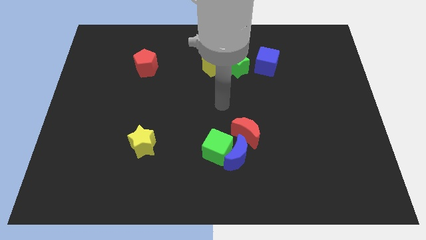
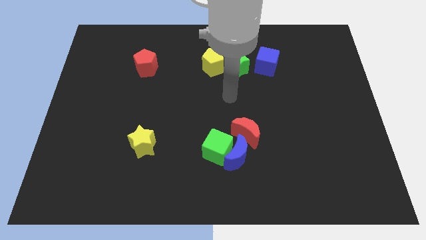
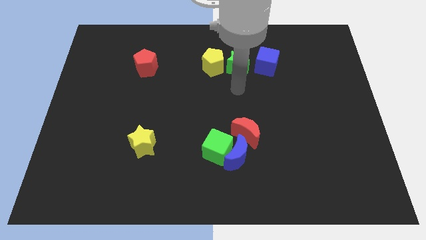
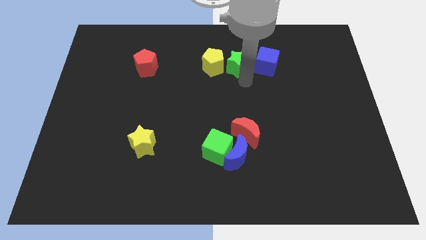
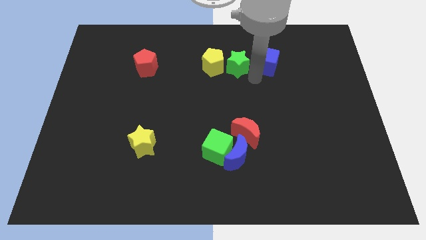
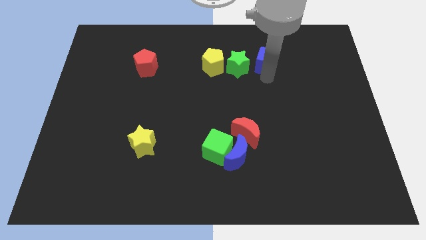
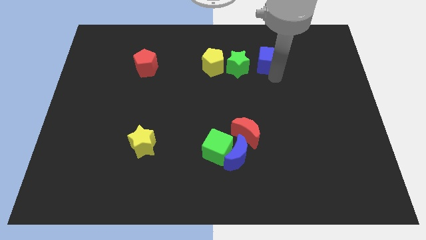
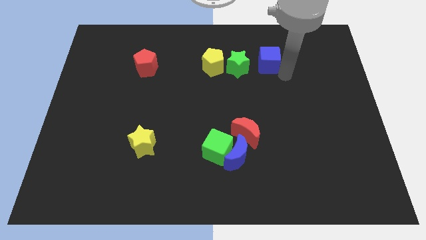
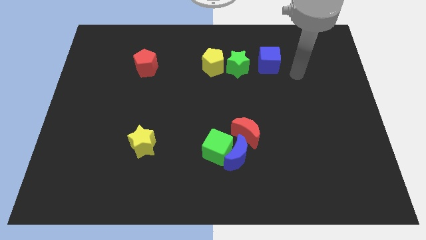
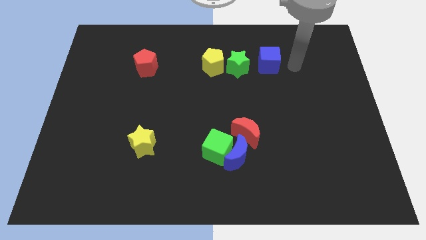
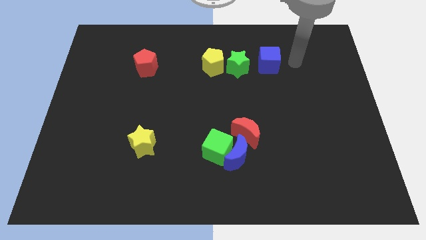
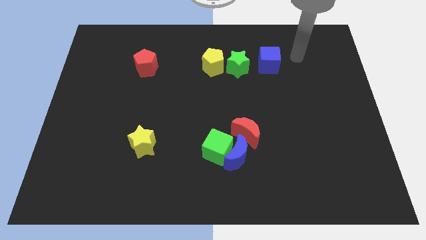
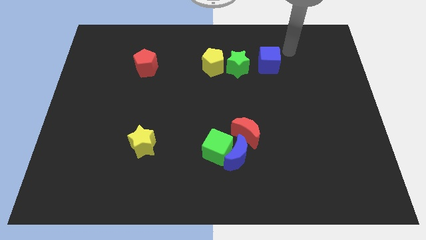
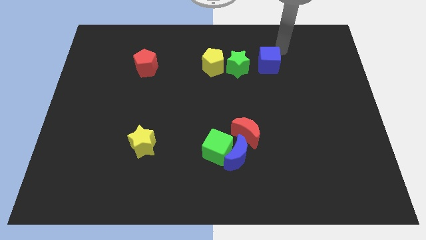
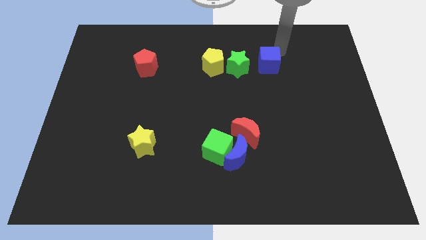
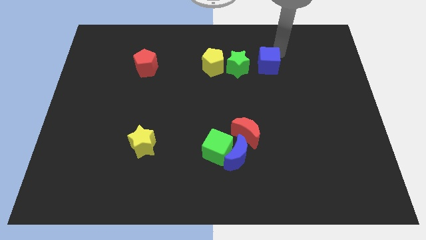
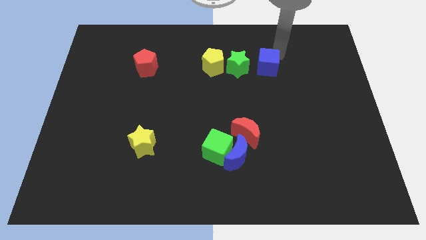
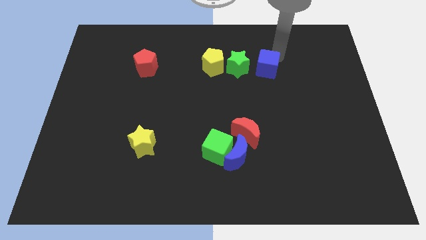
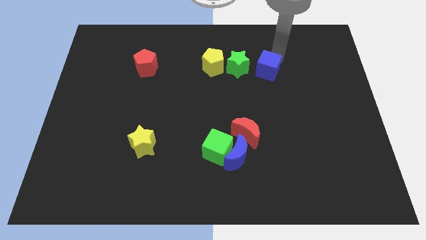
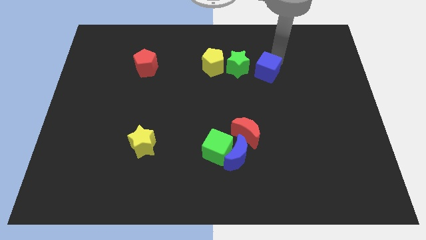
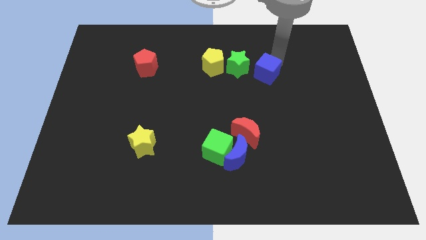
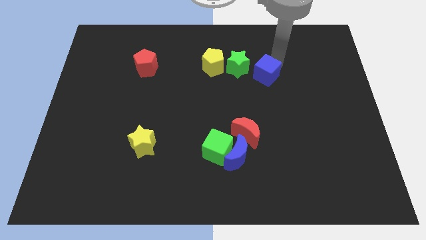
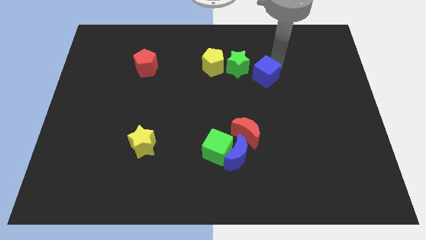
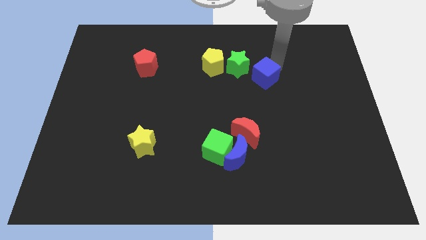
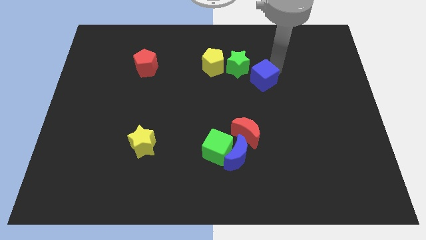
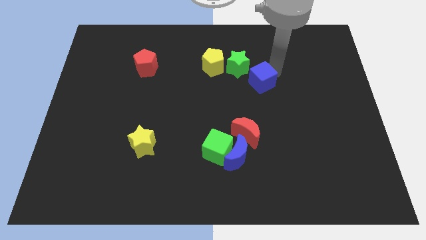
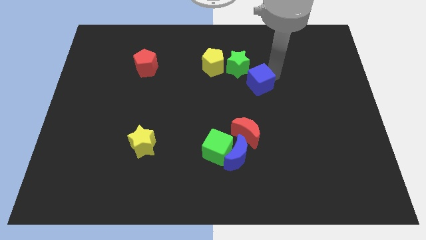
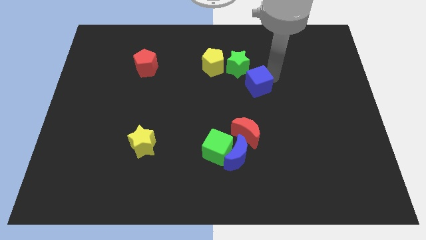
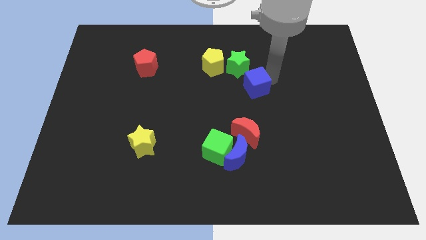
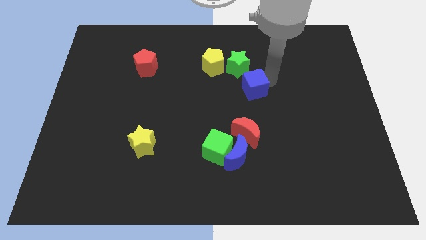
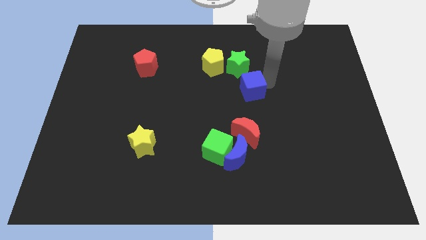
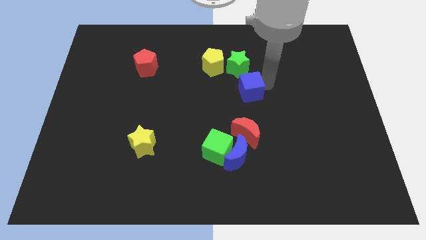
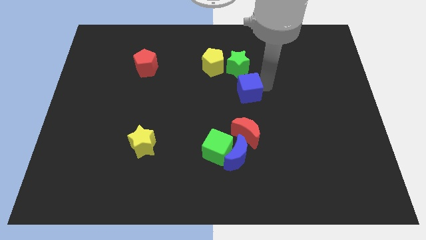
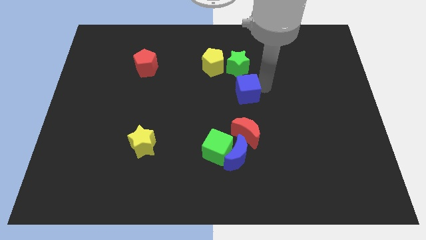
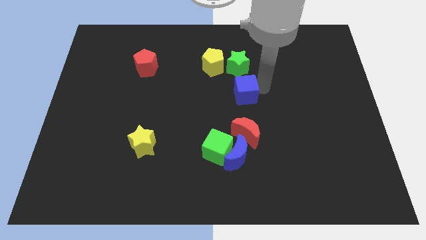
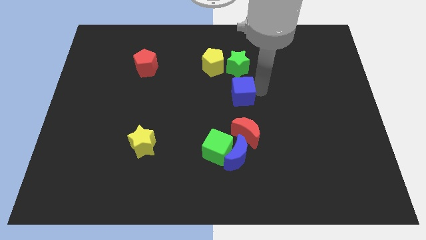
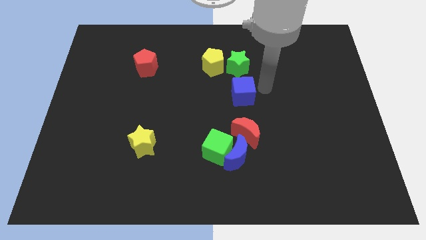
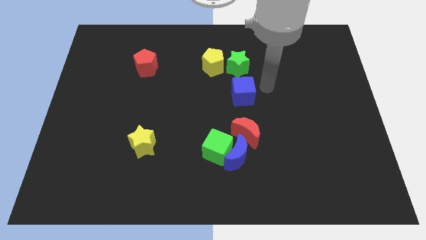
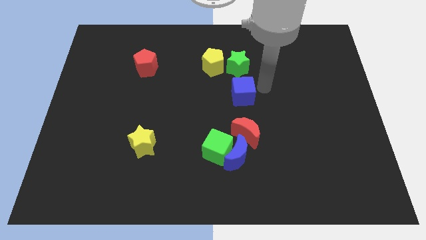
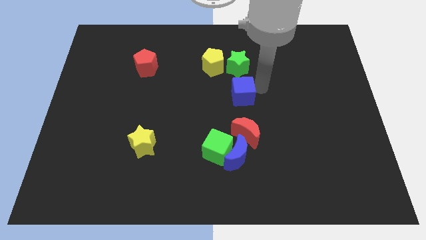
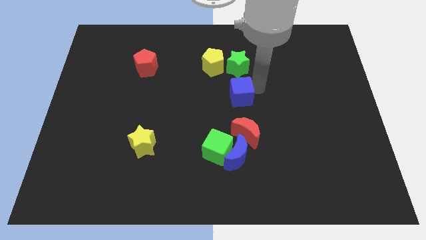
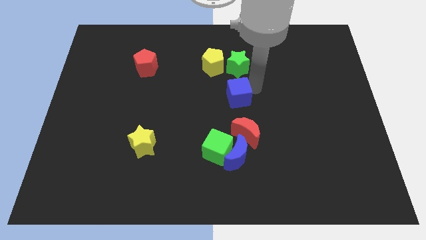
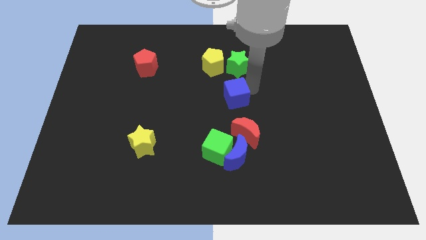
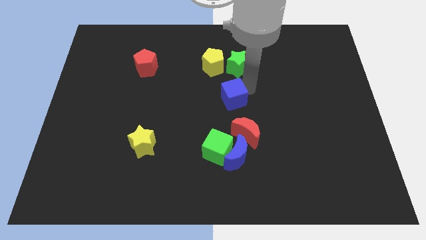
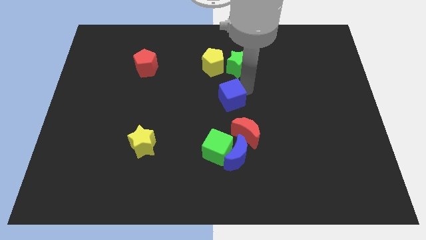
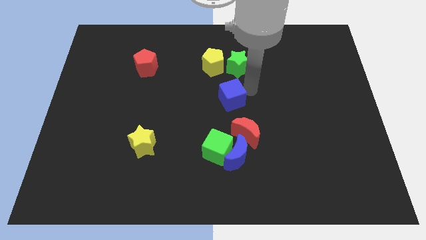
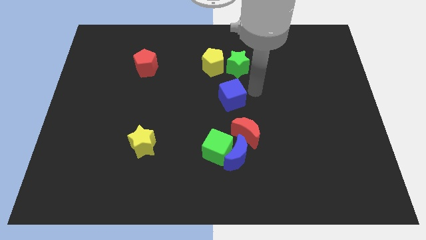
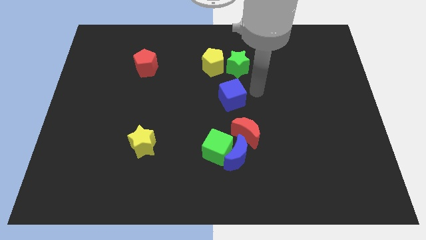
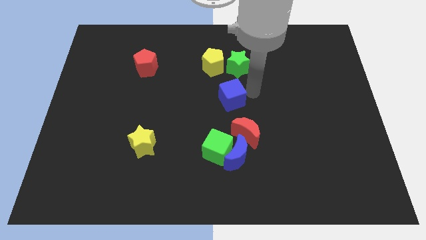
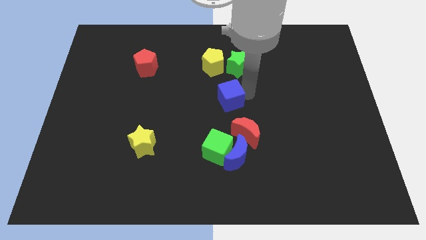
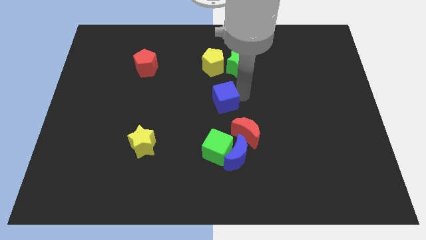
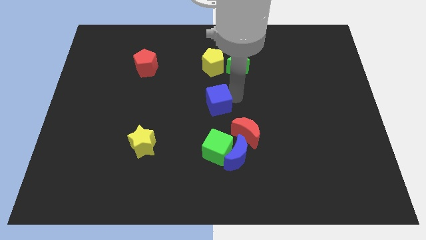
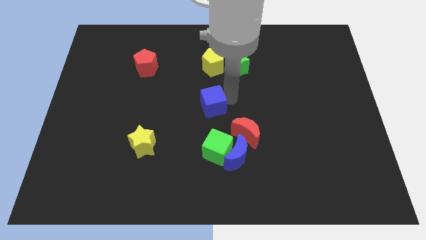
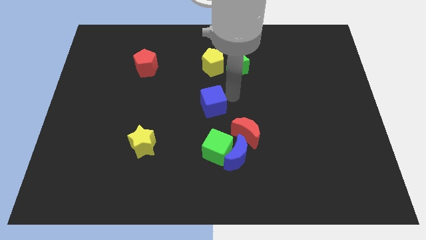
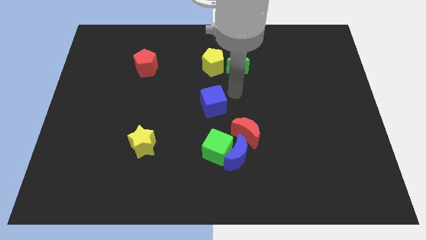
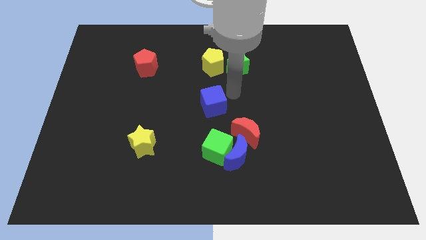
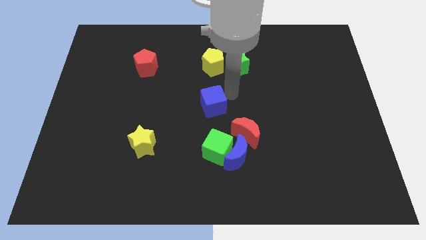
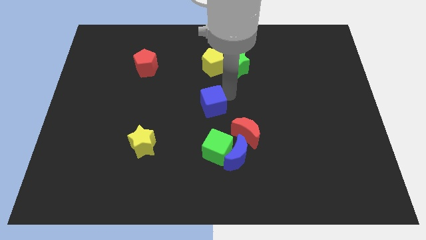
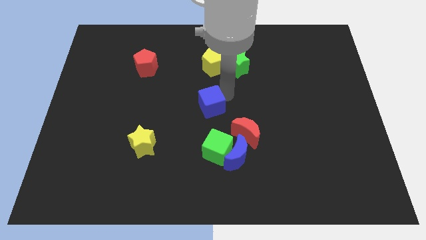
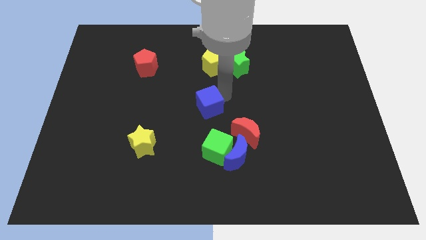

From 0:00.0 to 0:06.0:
slide the blue cube diagonally down and to the left

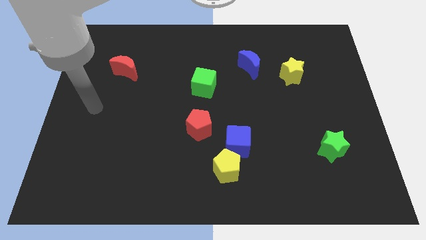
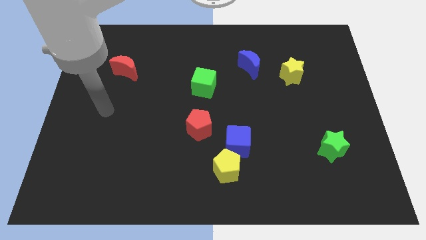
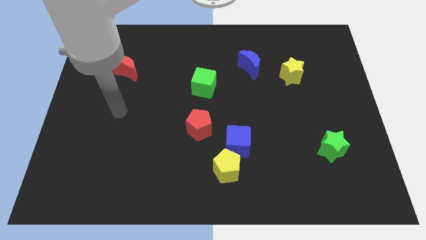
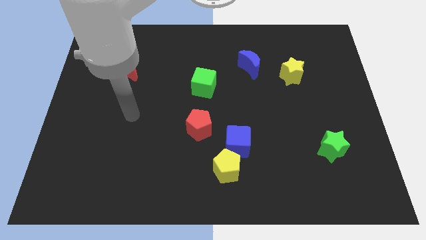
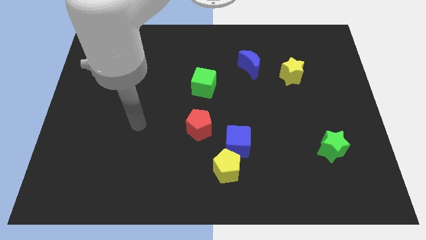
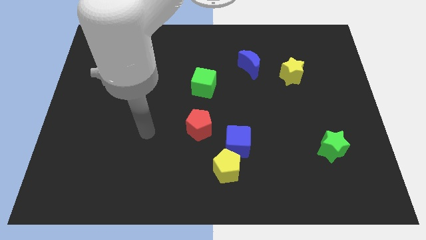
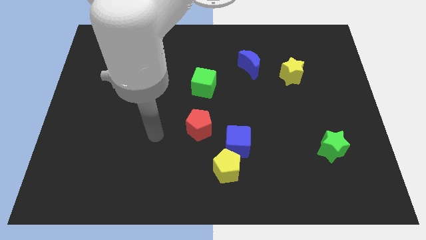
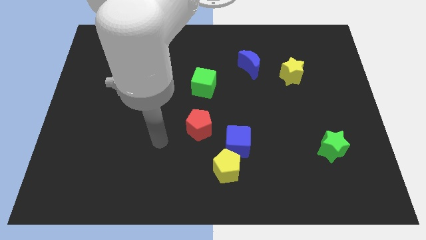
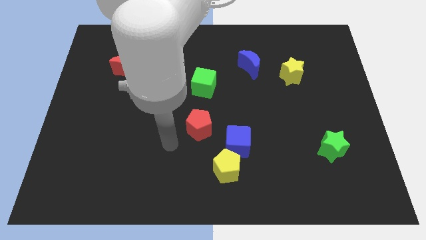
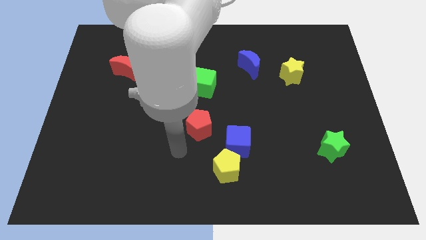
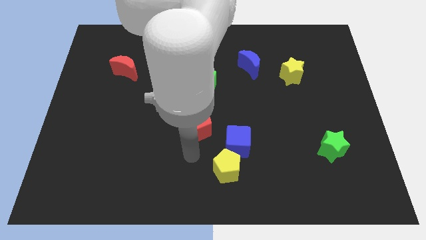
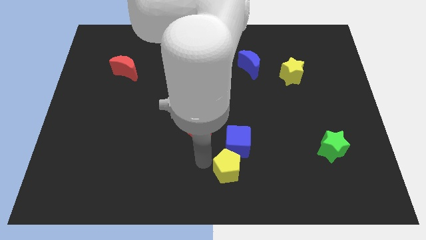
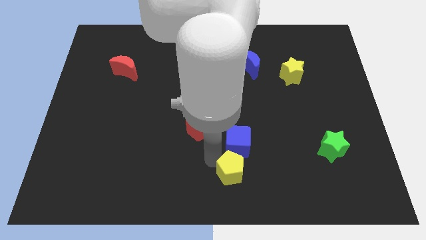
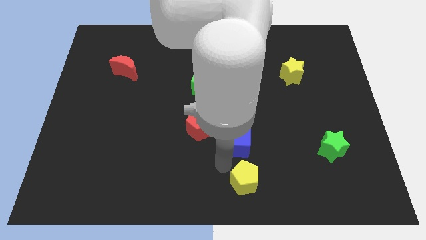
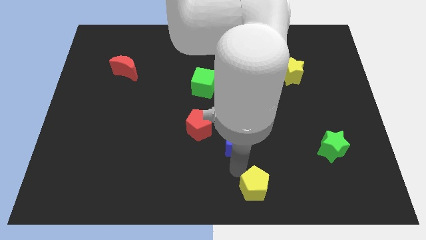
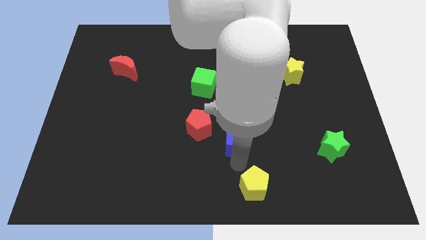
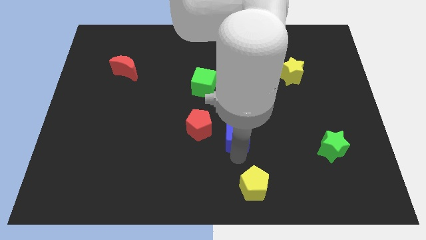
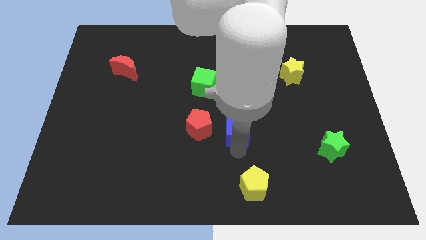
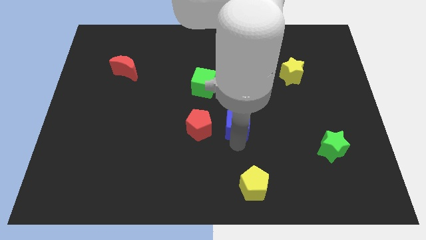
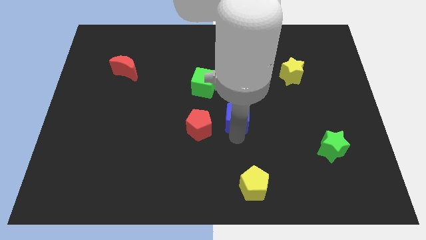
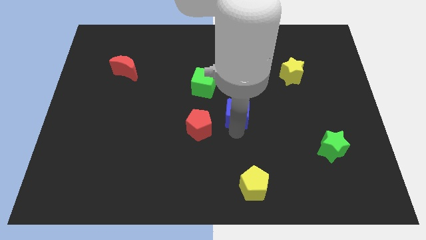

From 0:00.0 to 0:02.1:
slightly push the blue cube upwards

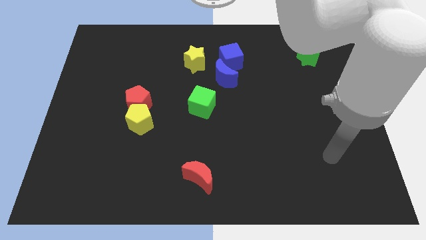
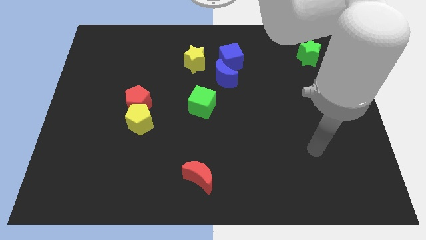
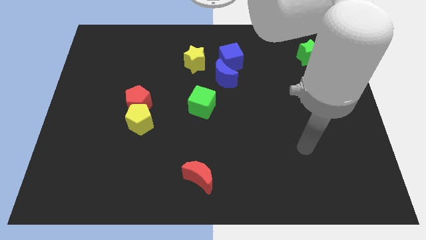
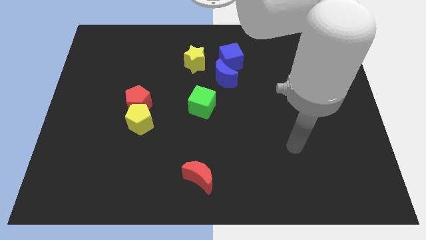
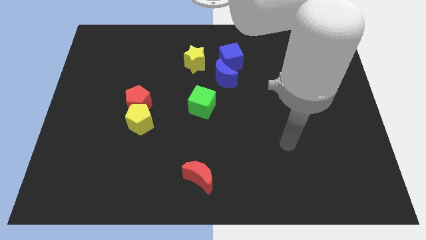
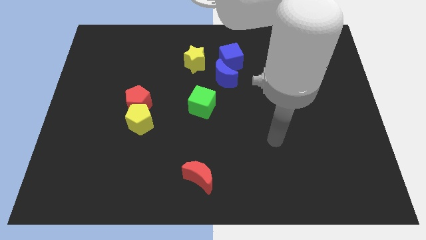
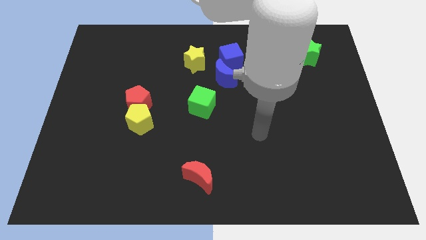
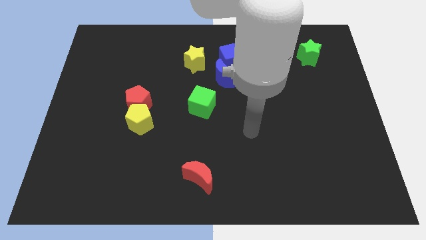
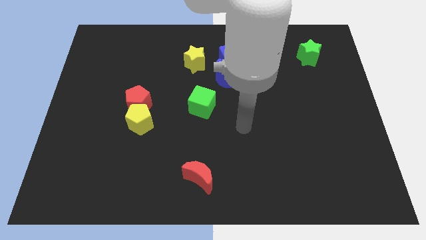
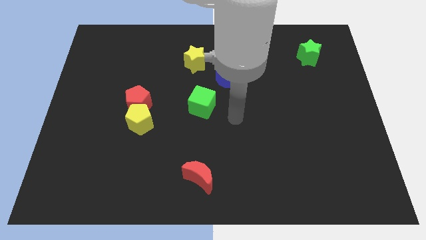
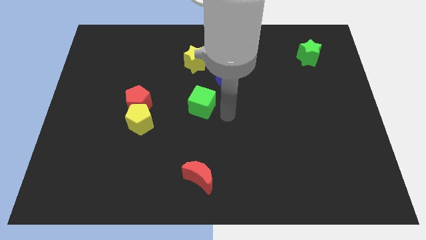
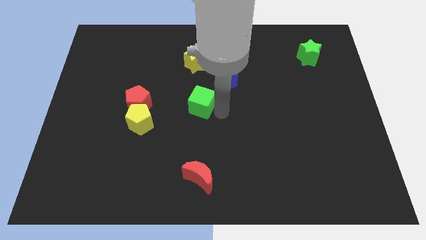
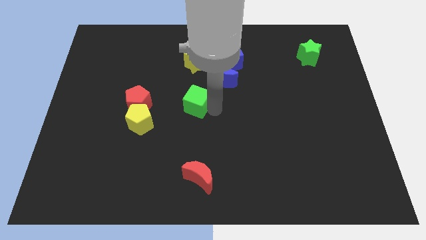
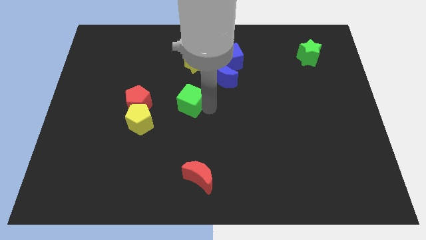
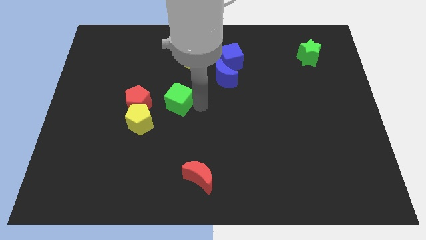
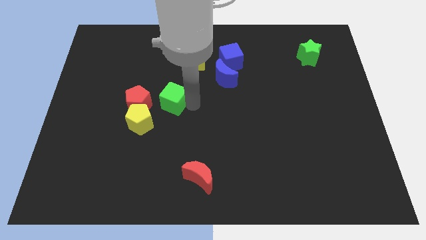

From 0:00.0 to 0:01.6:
push the green cube to the left a bit
